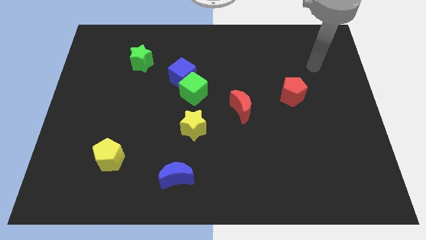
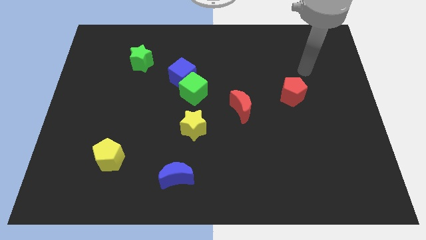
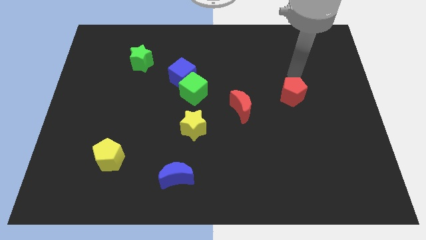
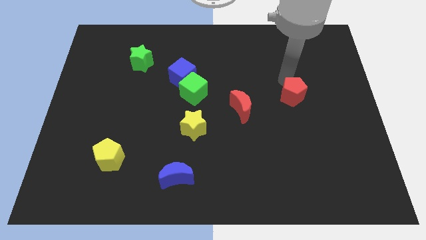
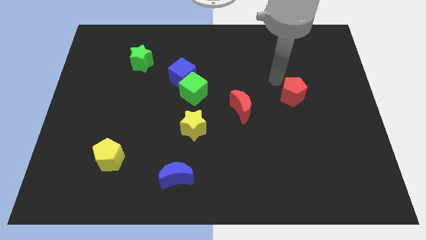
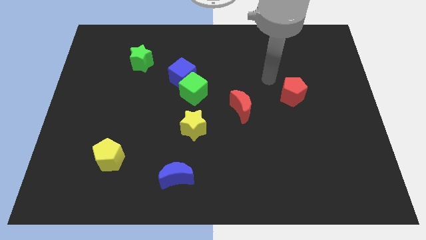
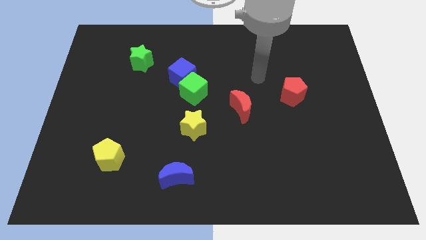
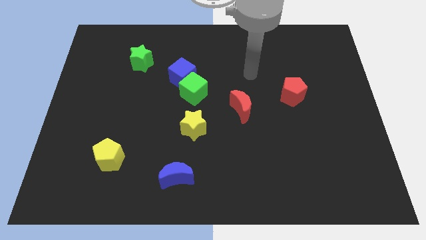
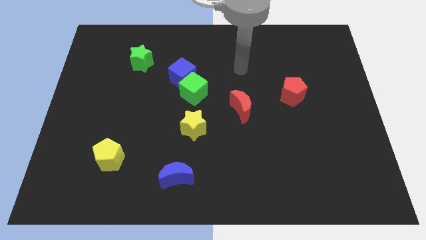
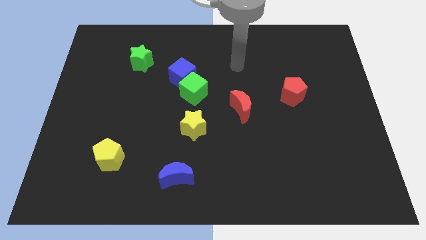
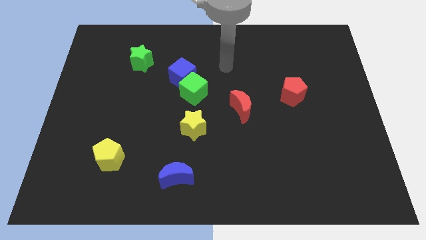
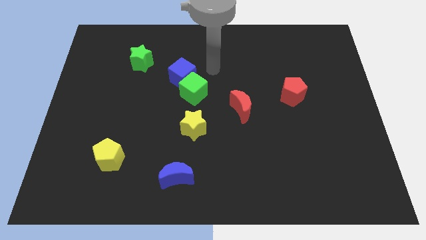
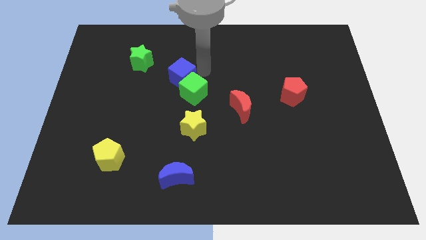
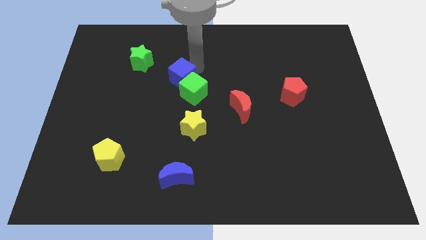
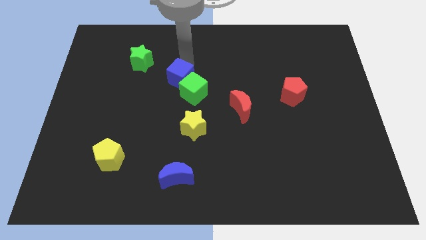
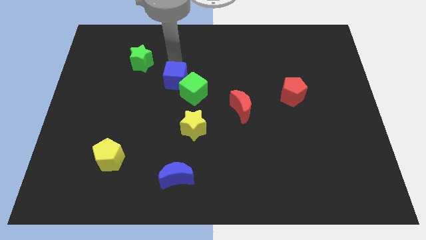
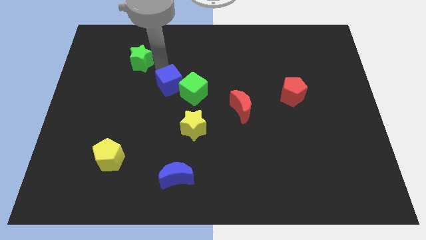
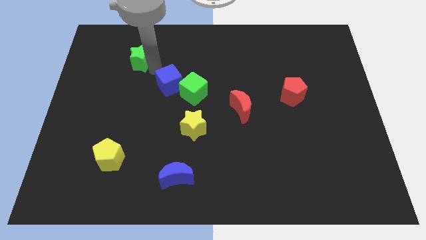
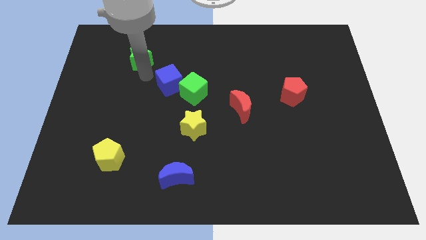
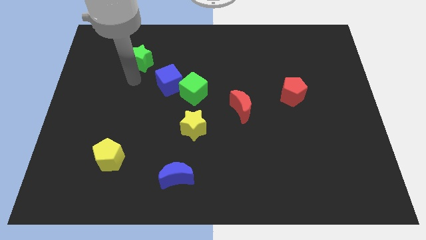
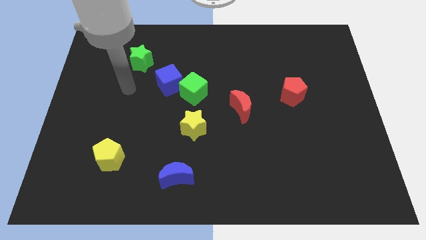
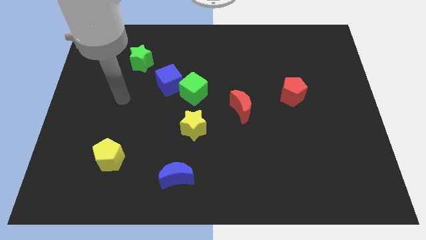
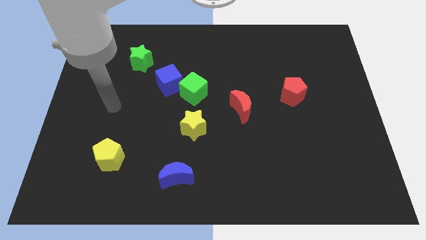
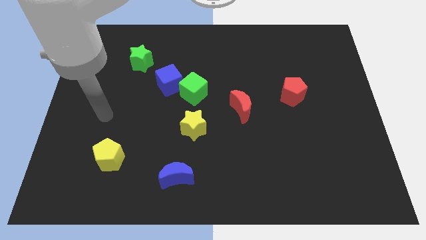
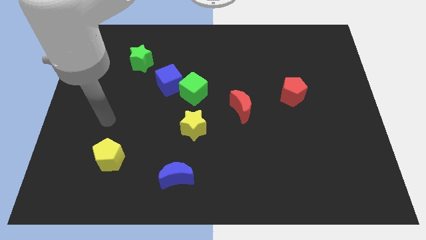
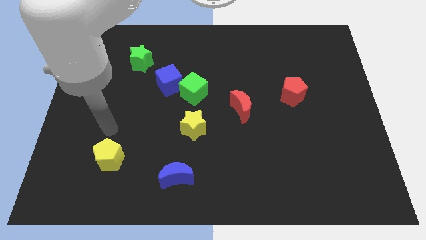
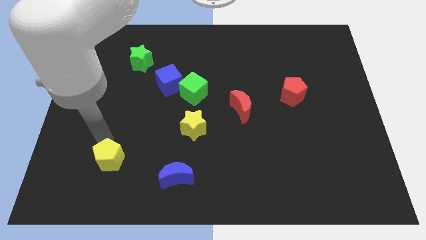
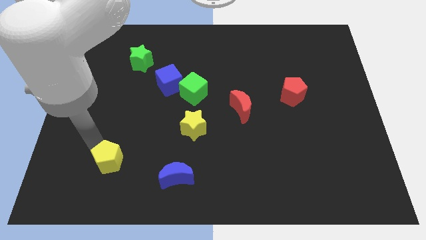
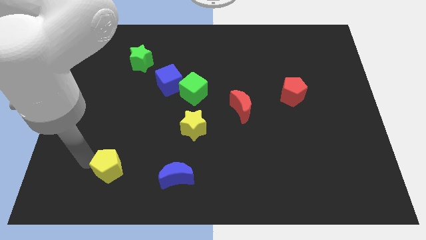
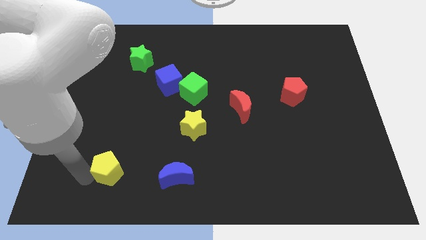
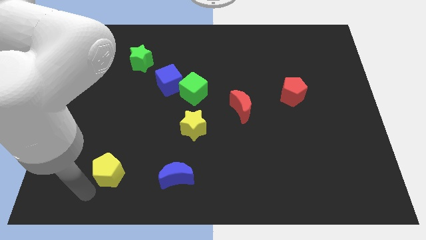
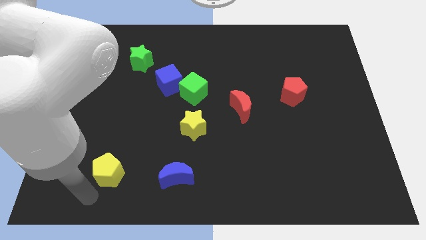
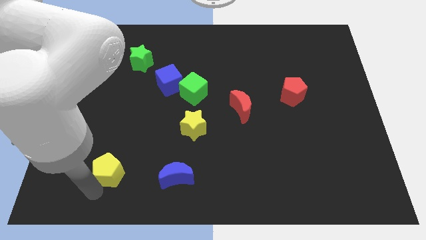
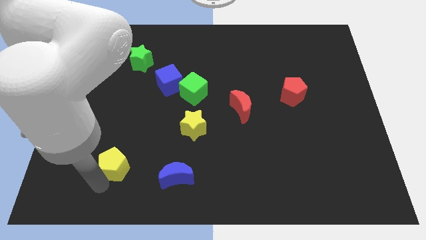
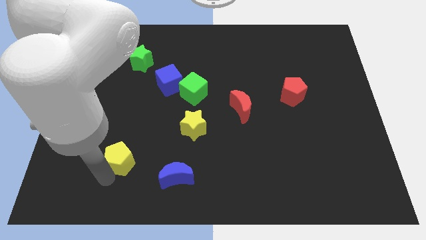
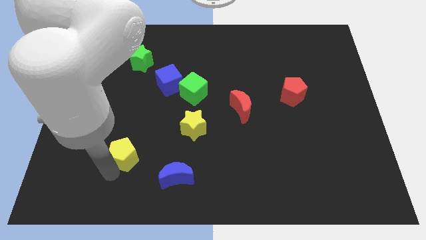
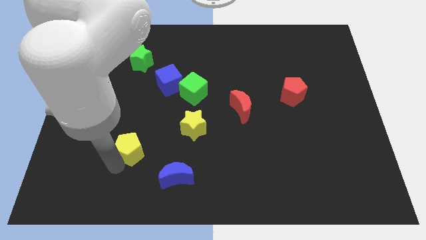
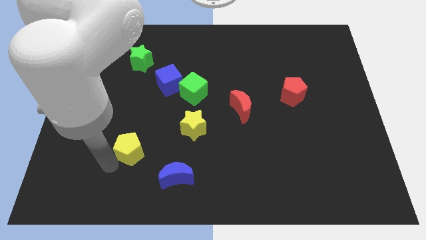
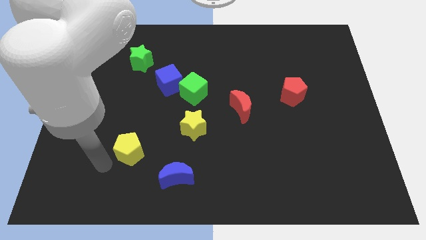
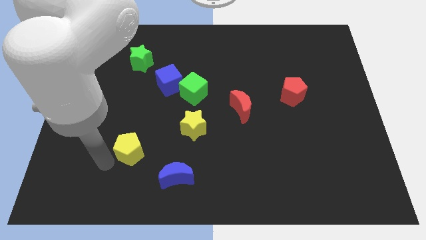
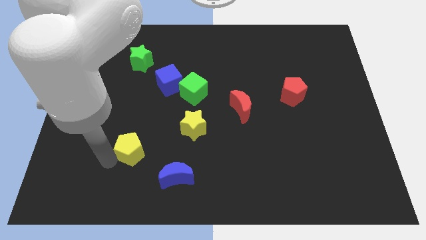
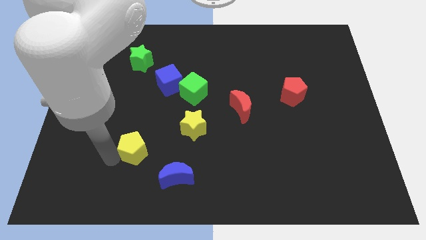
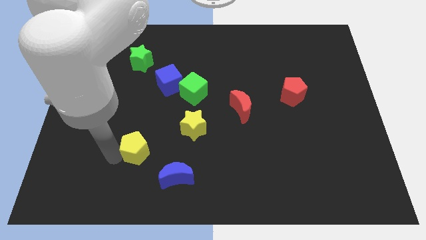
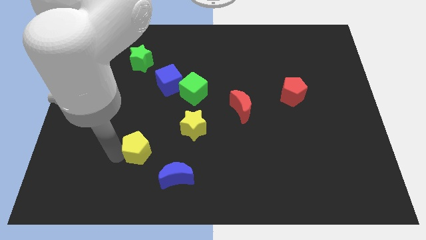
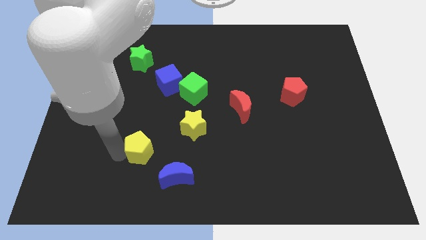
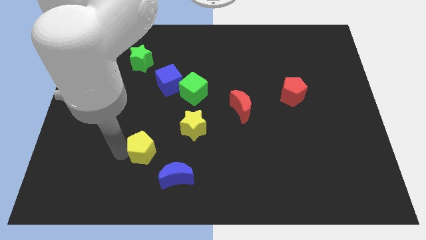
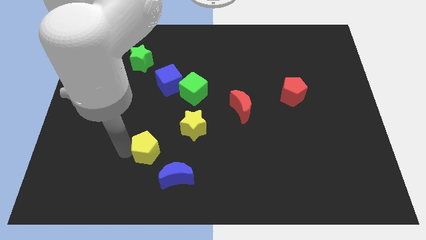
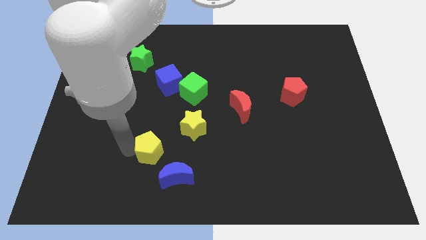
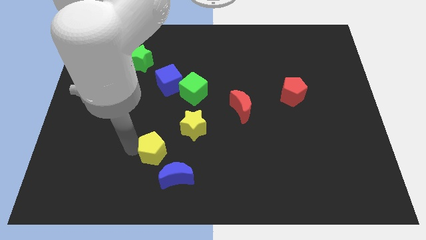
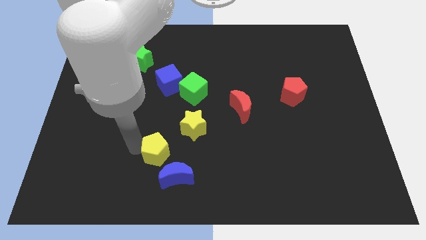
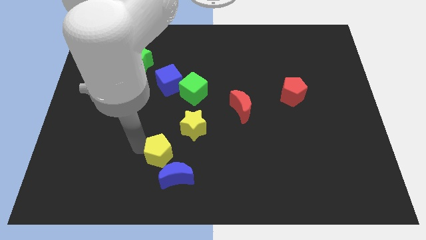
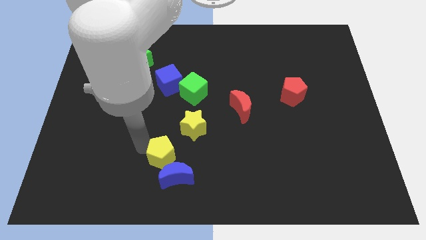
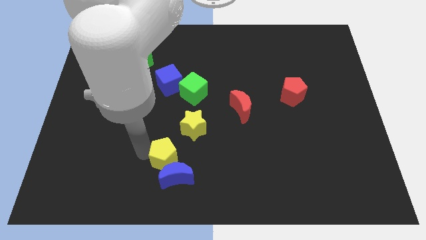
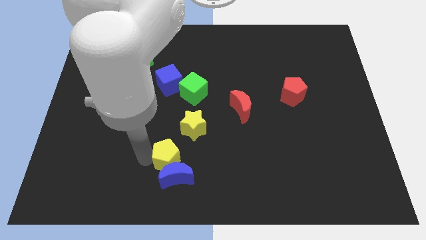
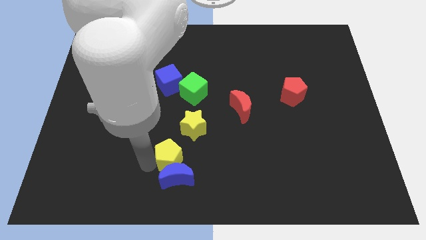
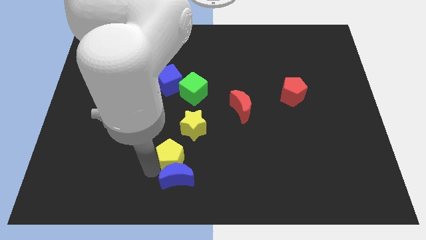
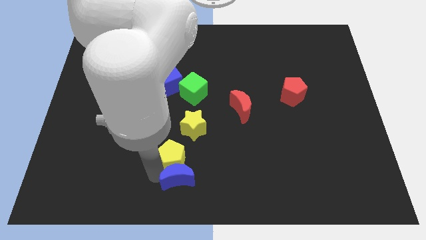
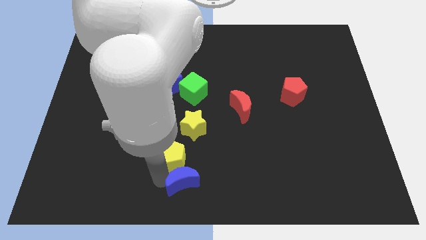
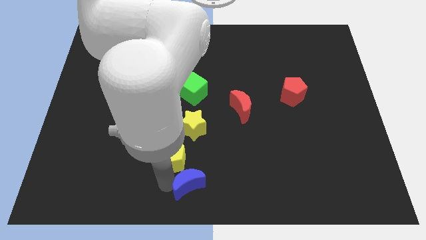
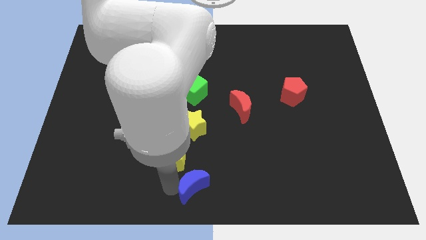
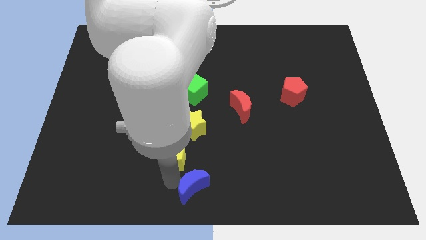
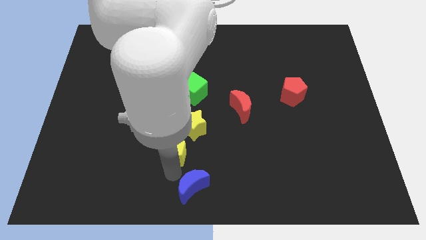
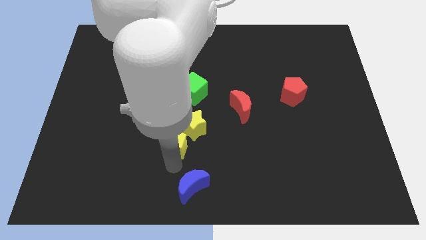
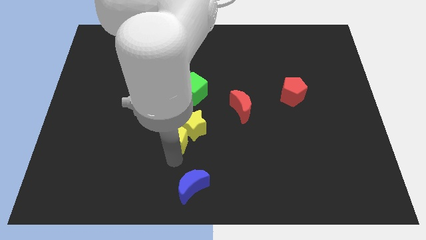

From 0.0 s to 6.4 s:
put the yellow pentagon to the yellow star

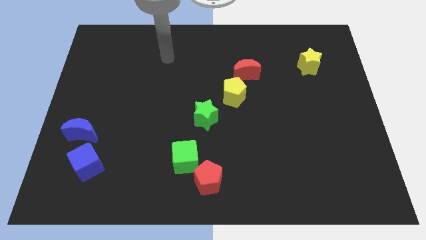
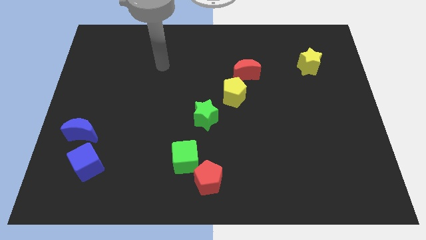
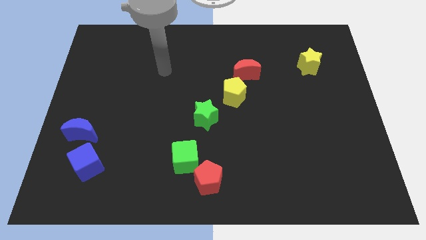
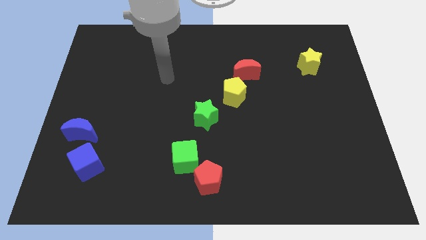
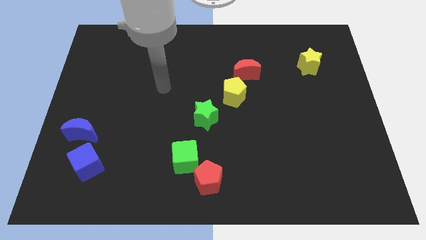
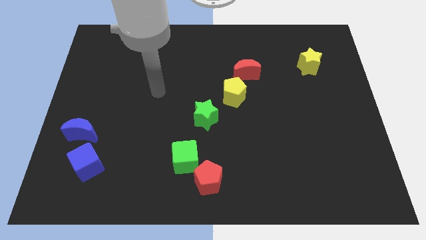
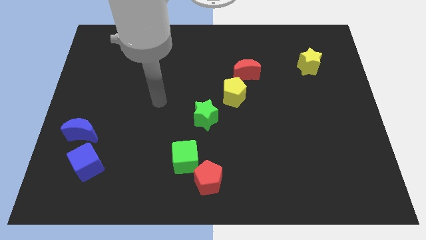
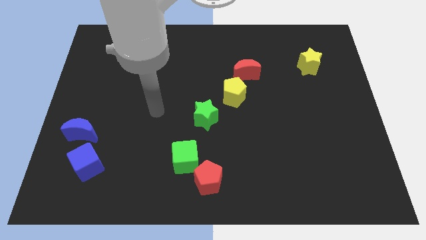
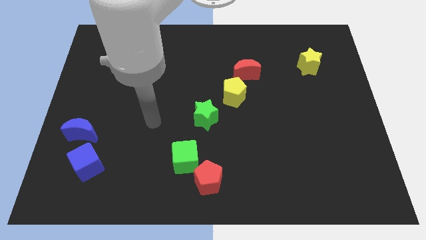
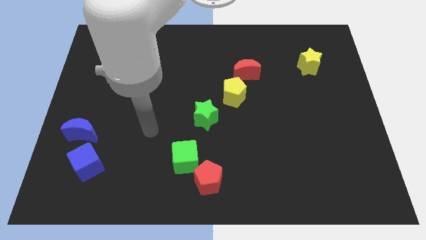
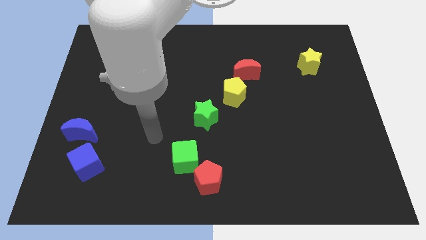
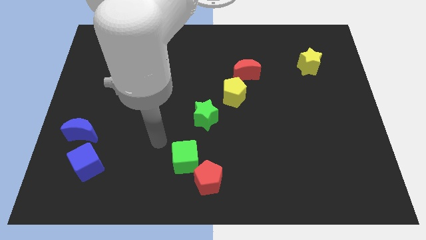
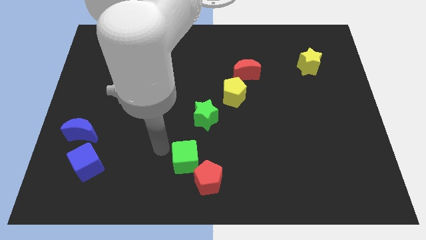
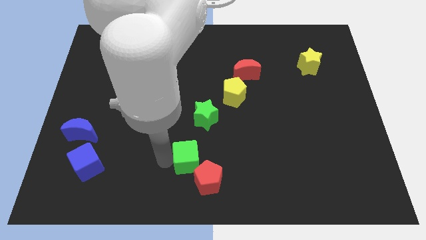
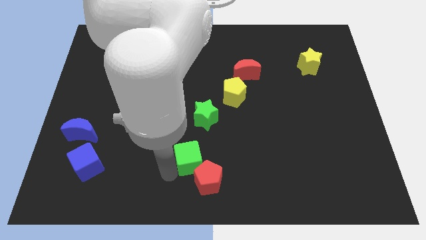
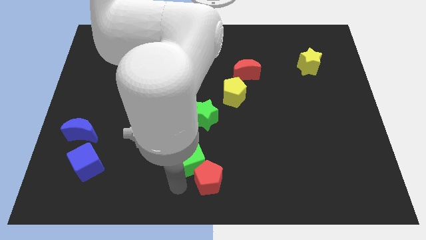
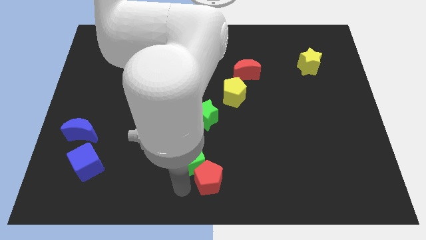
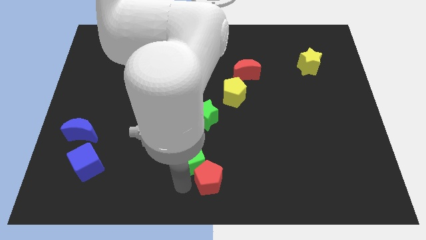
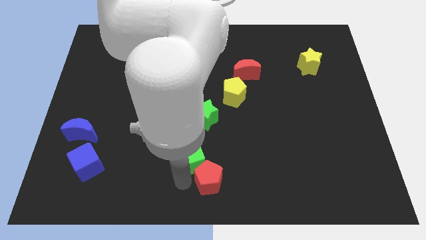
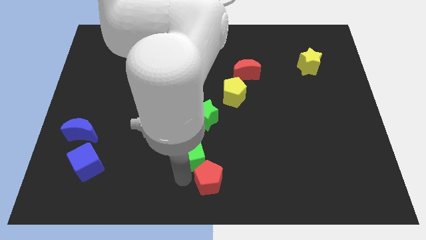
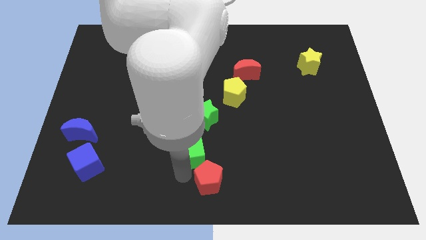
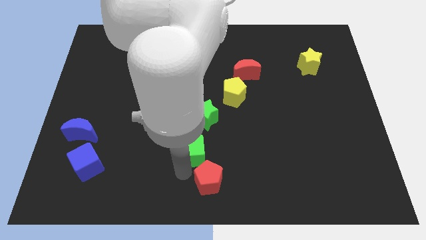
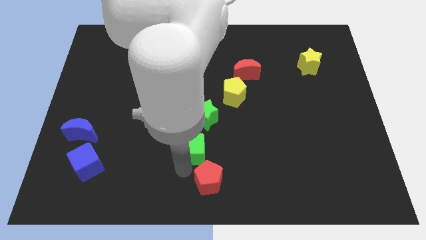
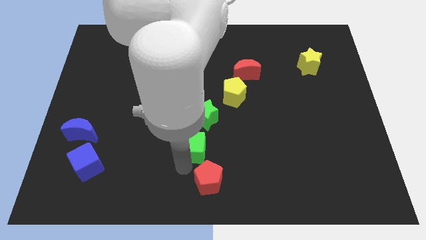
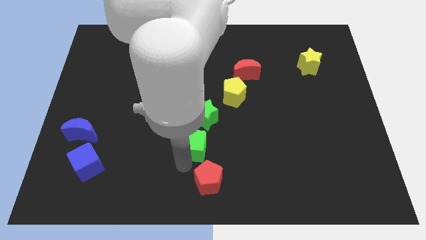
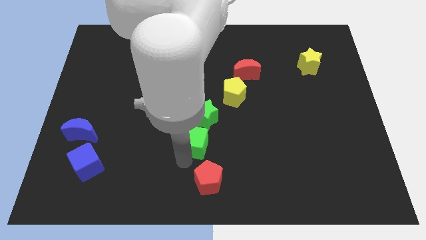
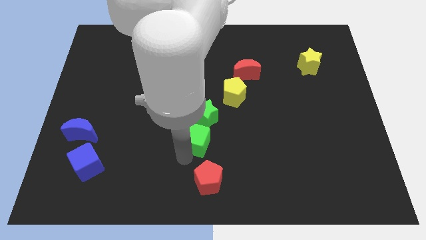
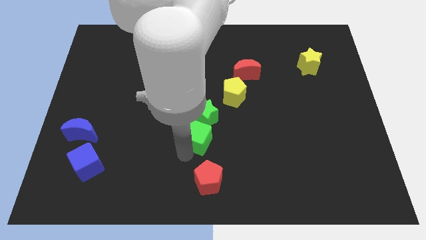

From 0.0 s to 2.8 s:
put the green cube towards the green star
